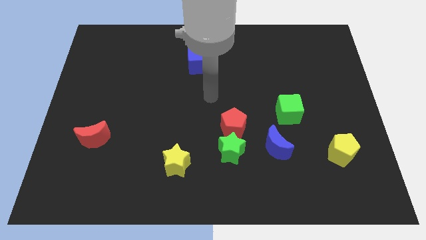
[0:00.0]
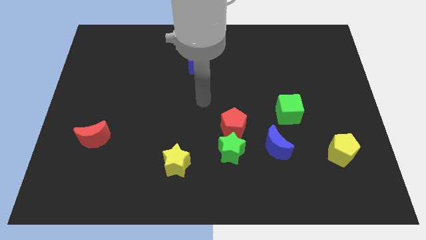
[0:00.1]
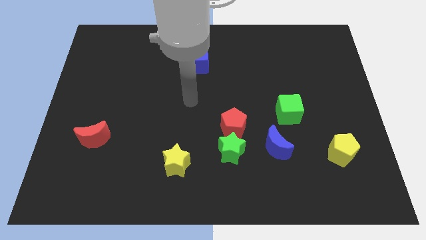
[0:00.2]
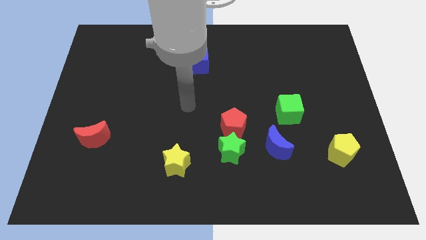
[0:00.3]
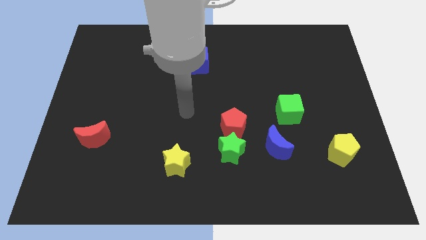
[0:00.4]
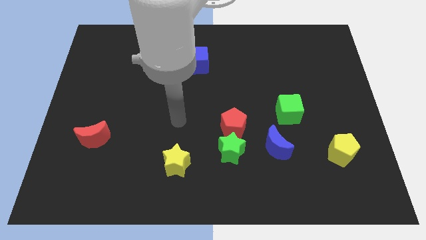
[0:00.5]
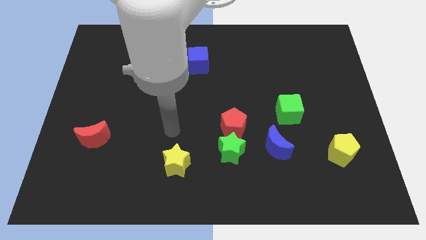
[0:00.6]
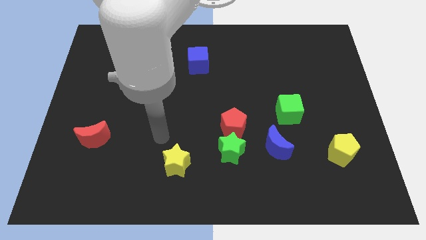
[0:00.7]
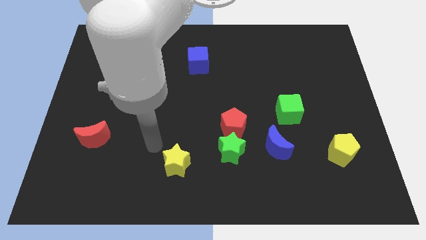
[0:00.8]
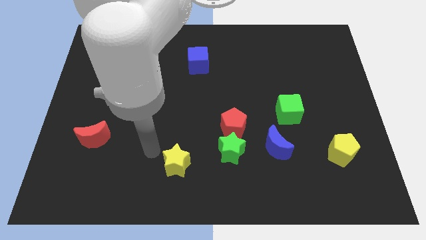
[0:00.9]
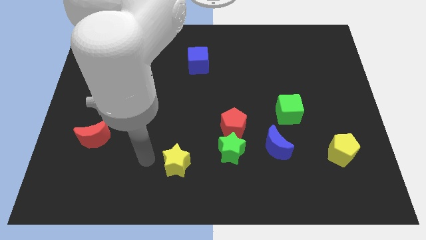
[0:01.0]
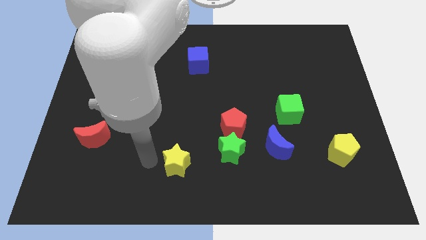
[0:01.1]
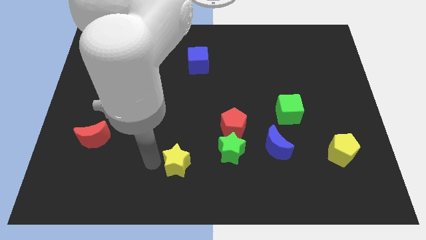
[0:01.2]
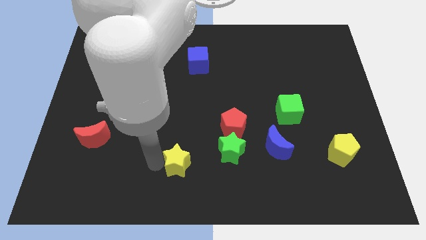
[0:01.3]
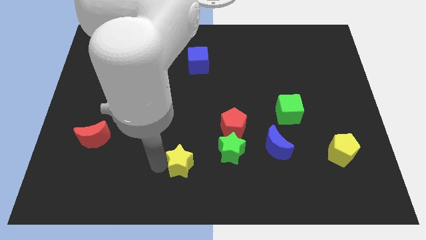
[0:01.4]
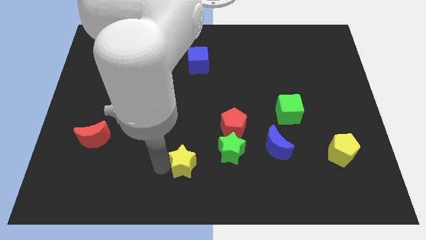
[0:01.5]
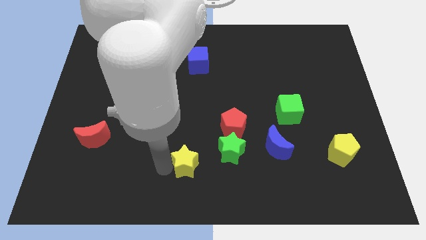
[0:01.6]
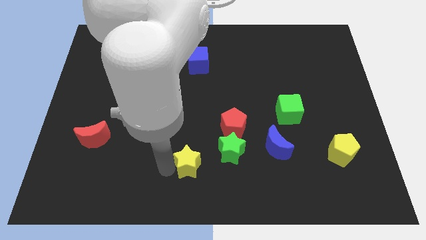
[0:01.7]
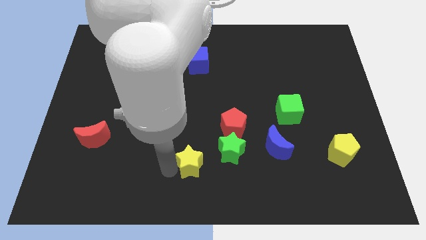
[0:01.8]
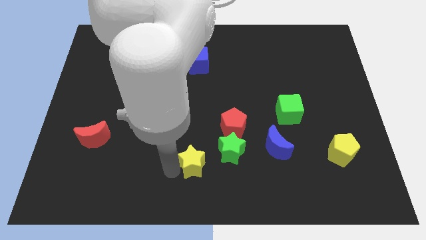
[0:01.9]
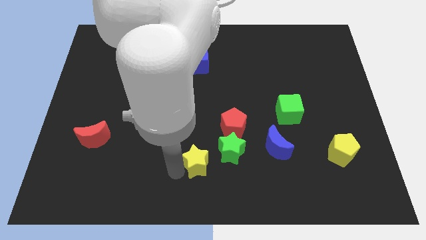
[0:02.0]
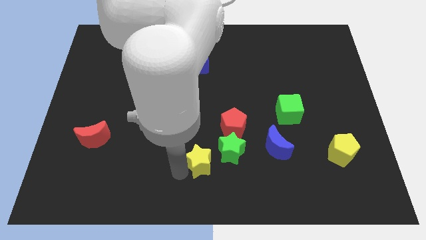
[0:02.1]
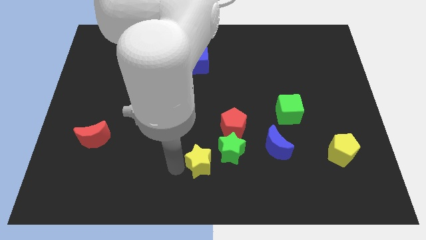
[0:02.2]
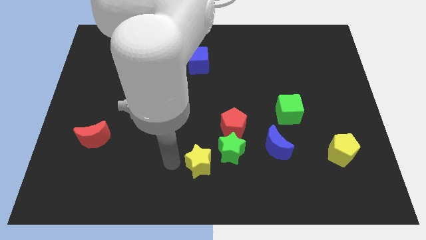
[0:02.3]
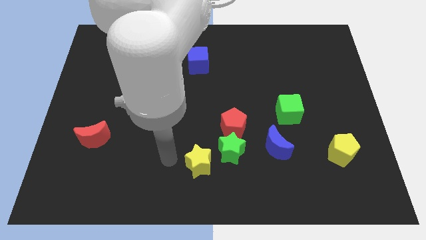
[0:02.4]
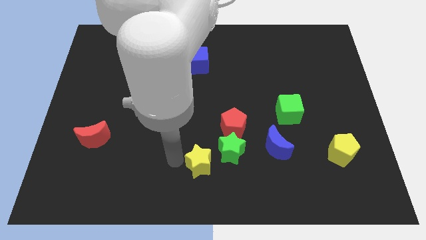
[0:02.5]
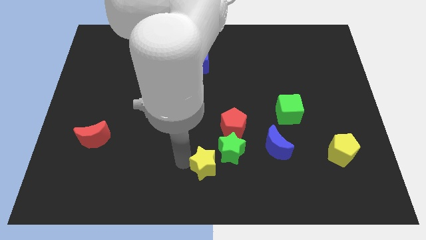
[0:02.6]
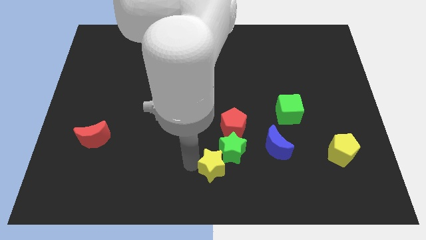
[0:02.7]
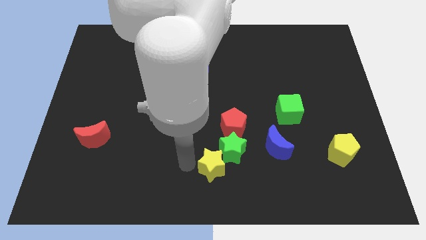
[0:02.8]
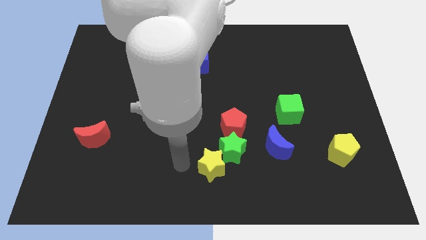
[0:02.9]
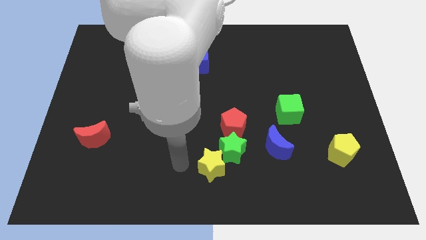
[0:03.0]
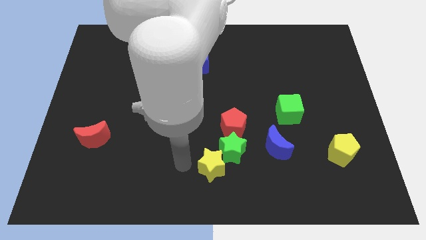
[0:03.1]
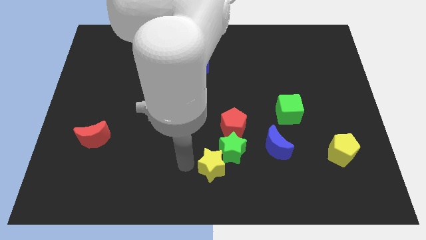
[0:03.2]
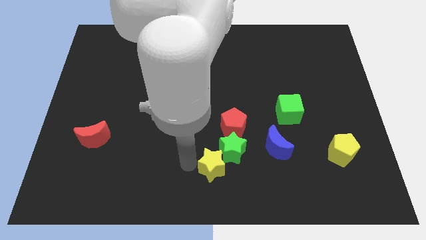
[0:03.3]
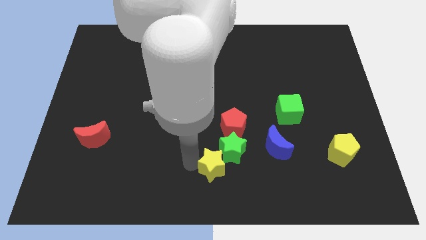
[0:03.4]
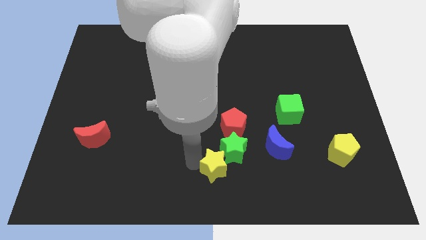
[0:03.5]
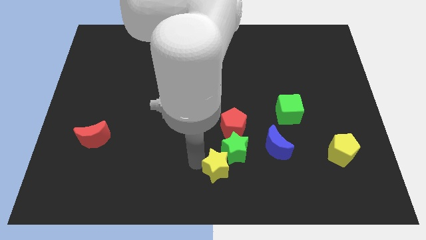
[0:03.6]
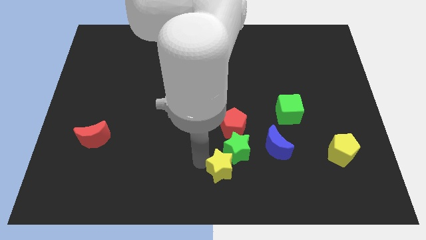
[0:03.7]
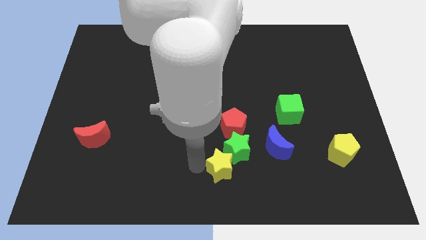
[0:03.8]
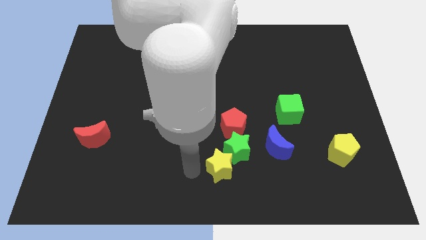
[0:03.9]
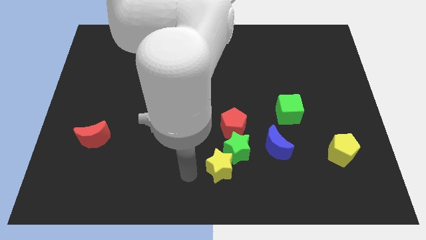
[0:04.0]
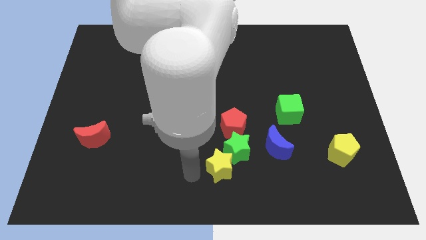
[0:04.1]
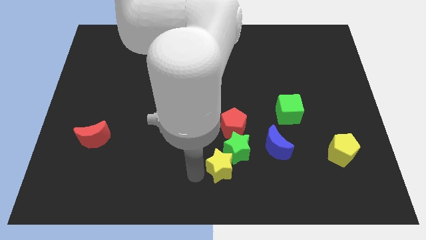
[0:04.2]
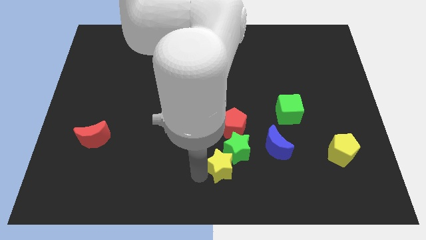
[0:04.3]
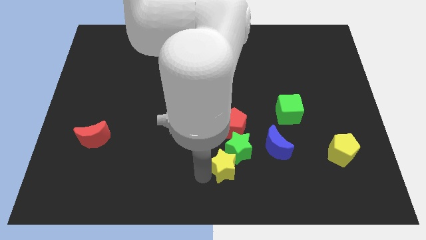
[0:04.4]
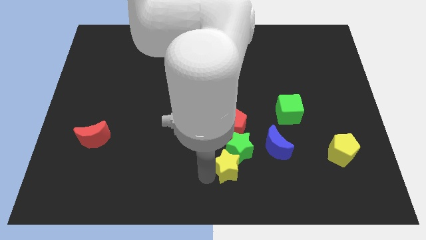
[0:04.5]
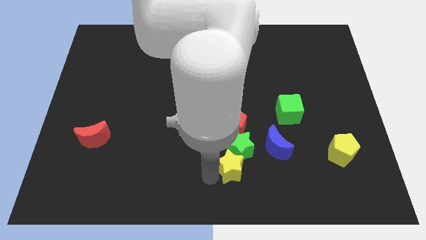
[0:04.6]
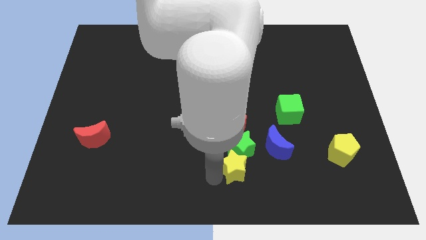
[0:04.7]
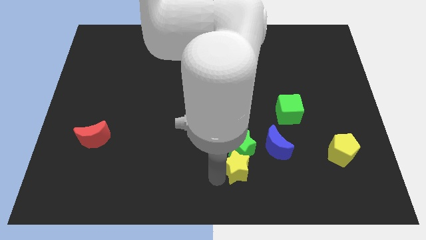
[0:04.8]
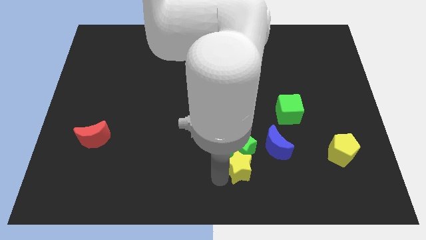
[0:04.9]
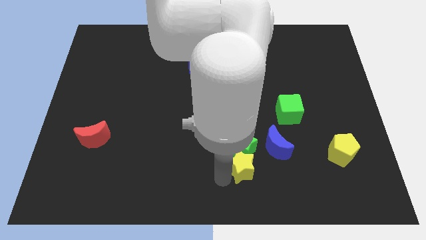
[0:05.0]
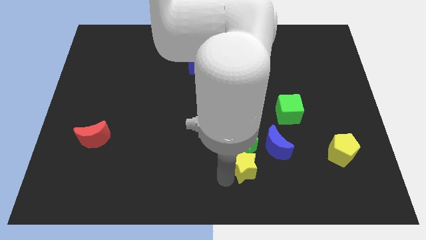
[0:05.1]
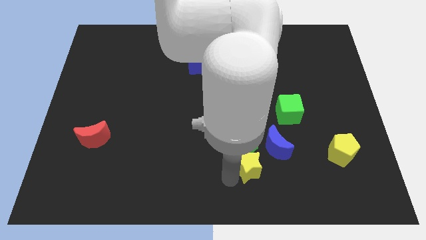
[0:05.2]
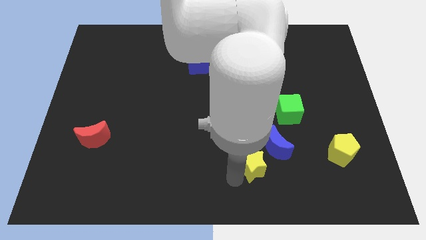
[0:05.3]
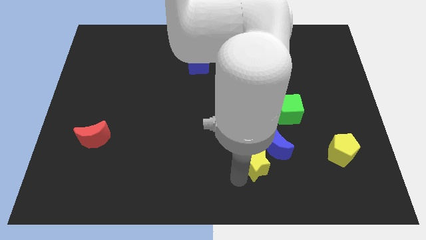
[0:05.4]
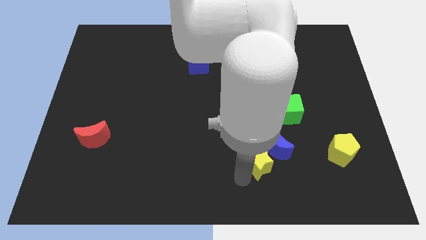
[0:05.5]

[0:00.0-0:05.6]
push the yellow star towards the blue moon

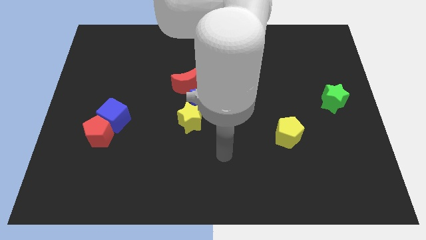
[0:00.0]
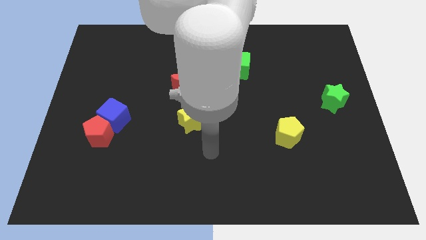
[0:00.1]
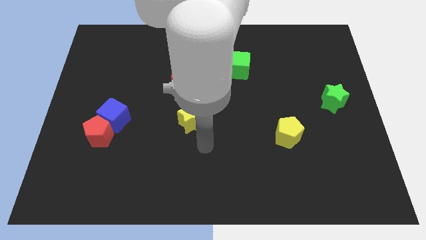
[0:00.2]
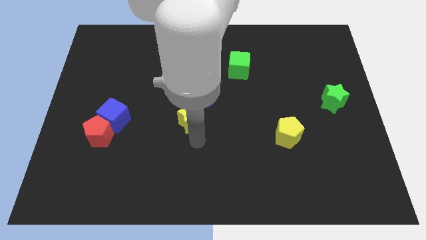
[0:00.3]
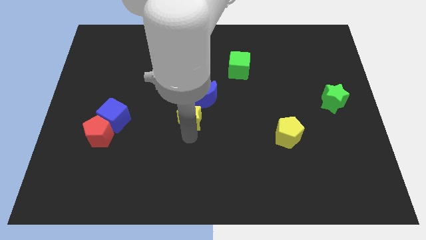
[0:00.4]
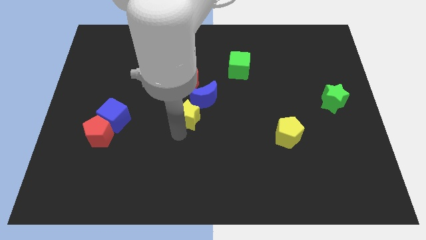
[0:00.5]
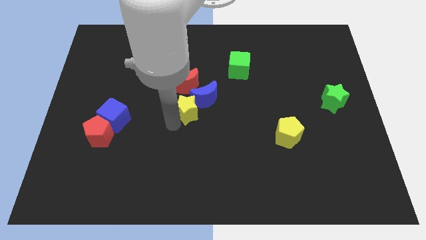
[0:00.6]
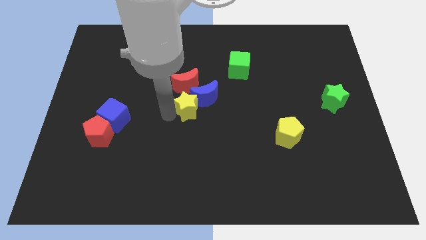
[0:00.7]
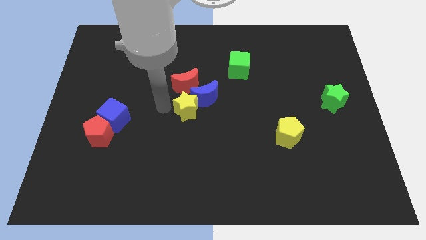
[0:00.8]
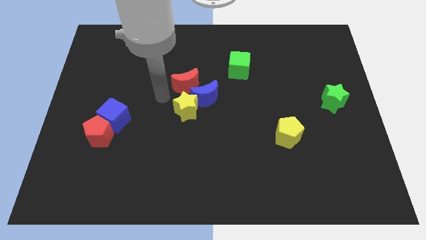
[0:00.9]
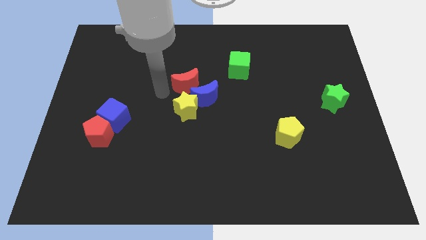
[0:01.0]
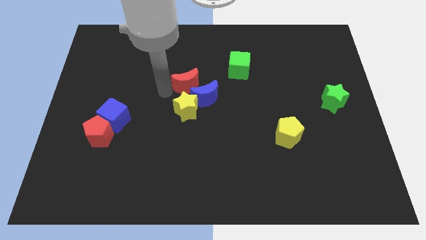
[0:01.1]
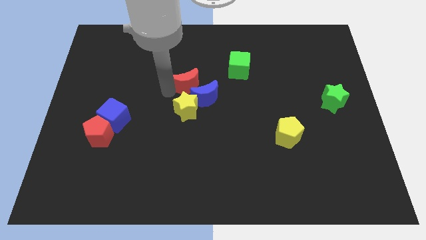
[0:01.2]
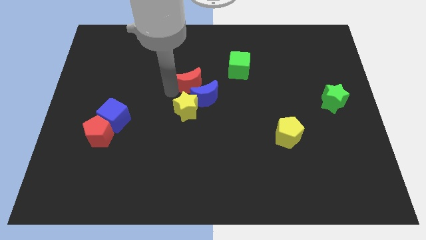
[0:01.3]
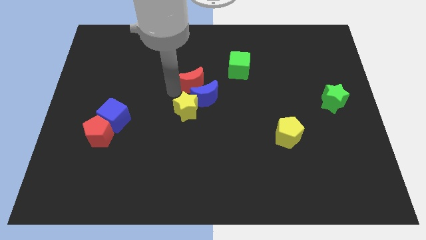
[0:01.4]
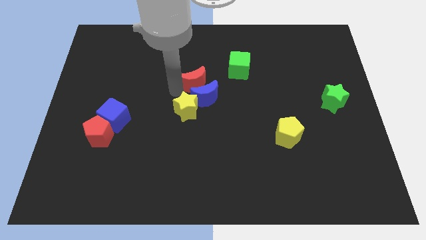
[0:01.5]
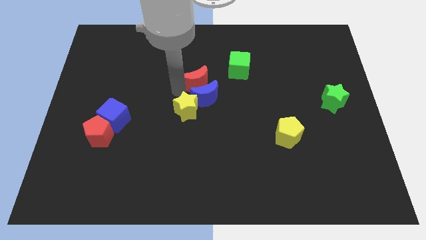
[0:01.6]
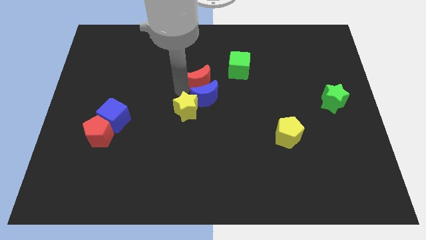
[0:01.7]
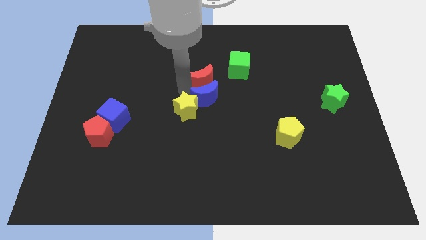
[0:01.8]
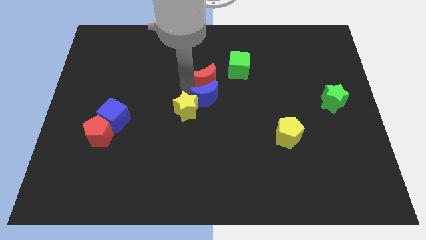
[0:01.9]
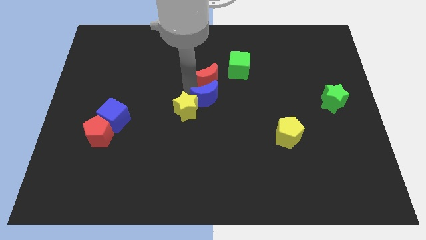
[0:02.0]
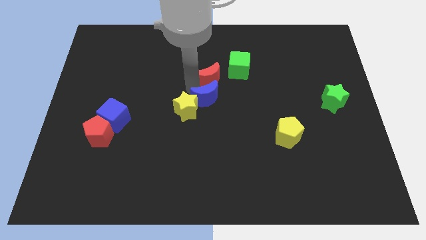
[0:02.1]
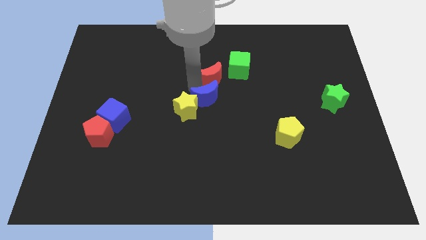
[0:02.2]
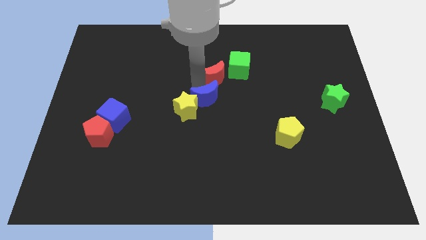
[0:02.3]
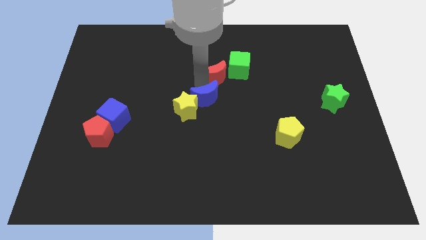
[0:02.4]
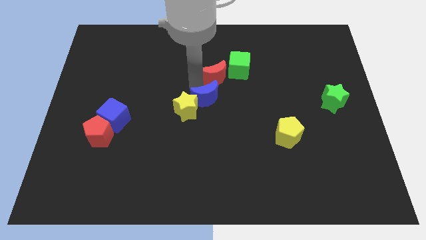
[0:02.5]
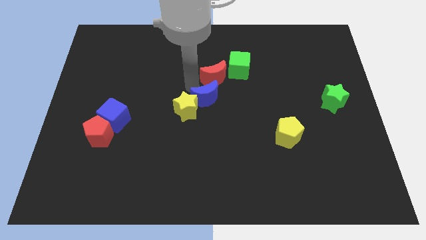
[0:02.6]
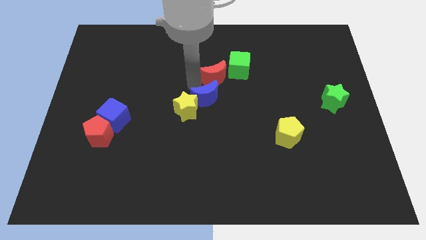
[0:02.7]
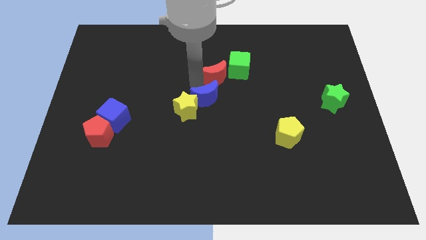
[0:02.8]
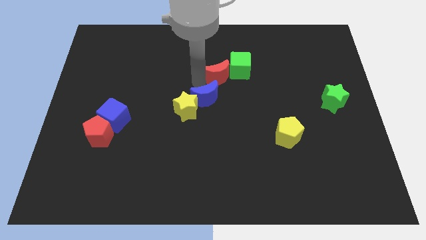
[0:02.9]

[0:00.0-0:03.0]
slide the red moon close to the green cube
